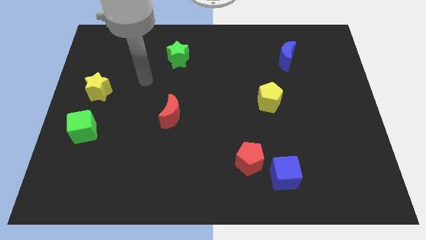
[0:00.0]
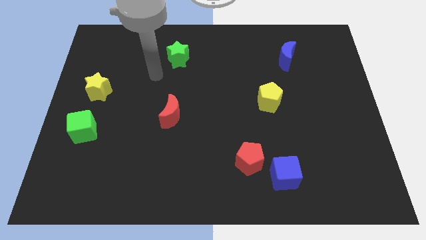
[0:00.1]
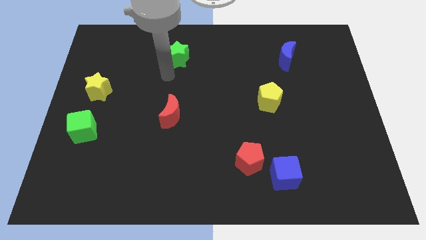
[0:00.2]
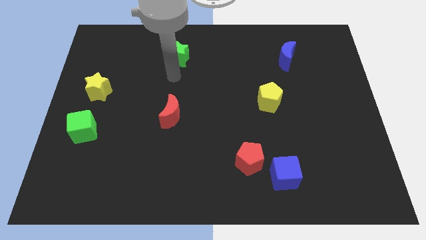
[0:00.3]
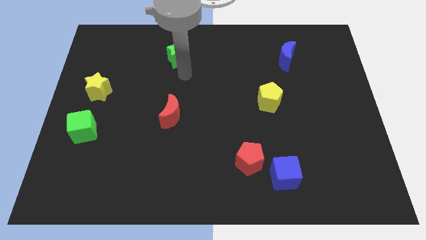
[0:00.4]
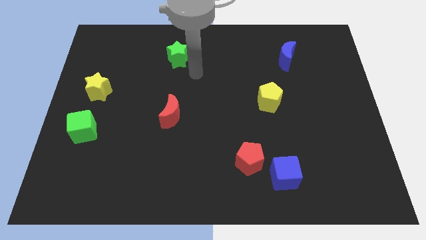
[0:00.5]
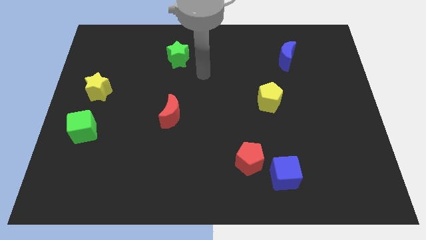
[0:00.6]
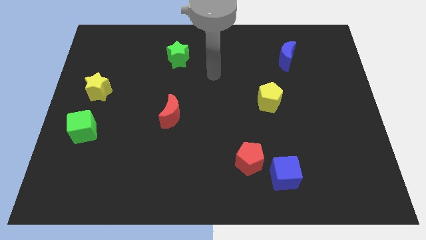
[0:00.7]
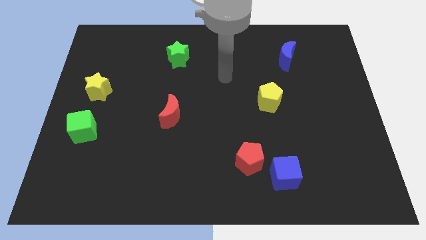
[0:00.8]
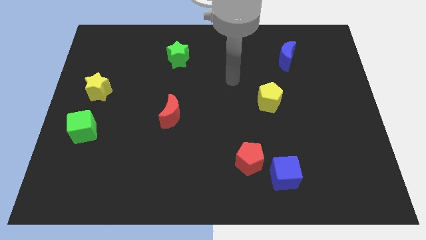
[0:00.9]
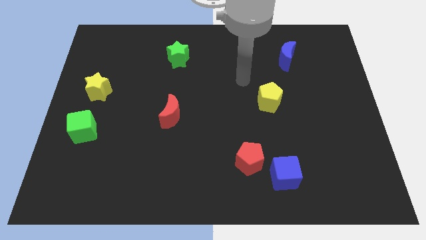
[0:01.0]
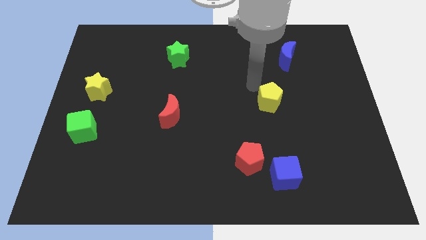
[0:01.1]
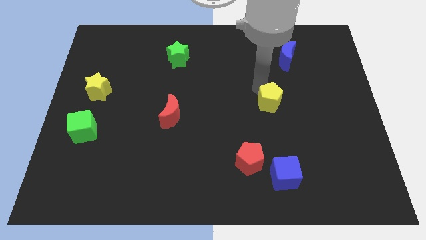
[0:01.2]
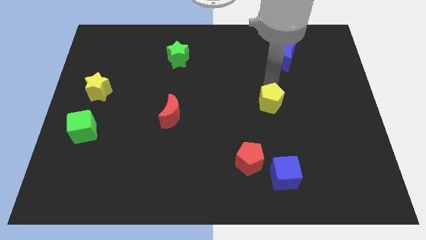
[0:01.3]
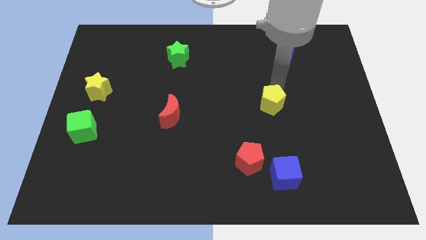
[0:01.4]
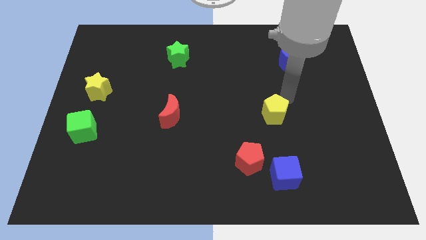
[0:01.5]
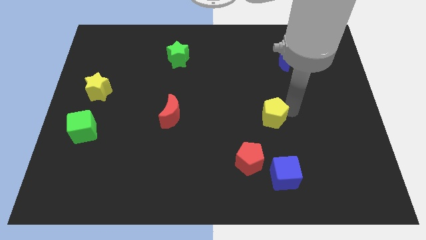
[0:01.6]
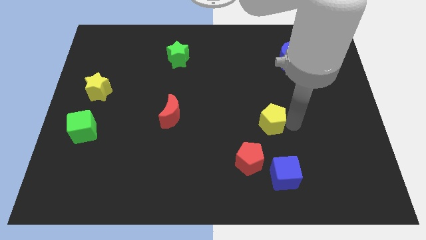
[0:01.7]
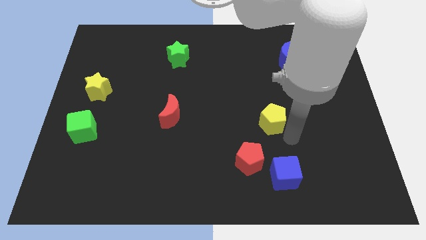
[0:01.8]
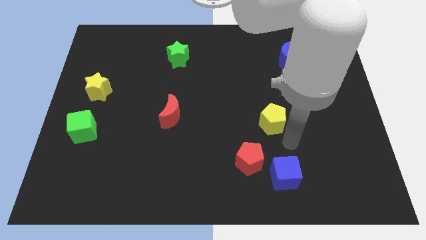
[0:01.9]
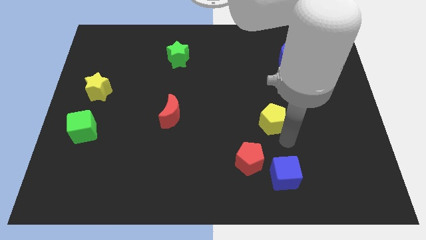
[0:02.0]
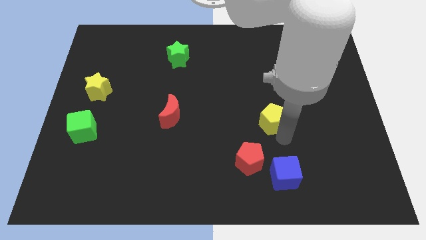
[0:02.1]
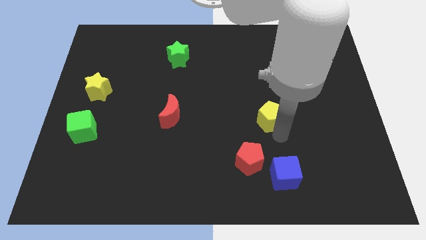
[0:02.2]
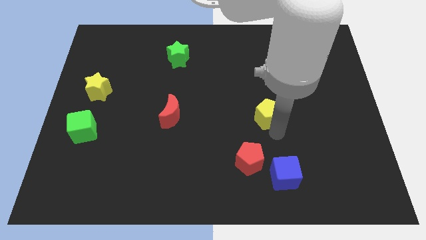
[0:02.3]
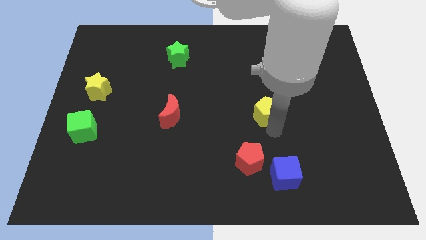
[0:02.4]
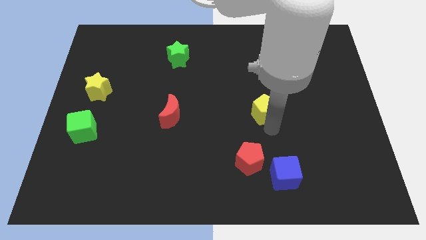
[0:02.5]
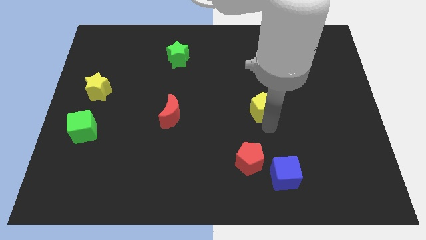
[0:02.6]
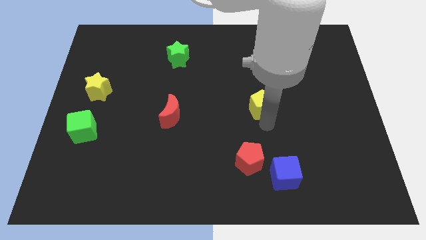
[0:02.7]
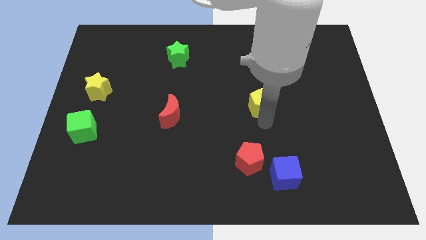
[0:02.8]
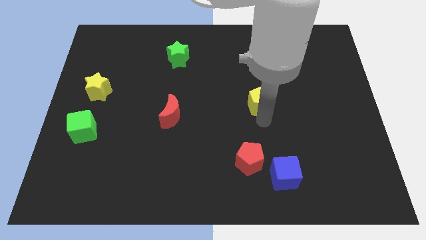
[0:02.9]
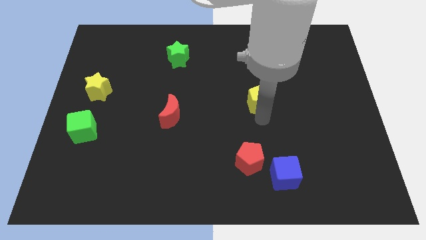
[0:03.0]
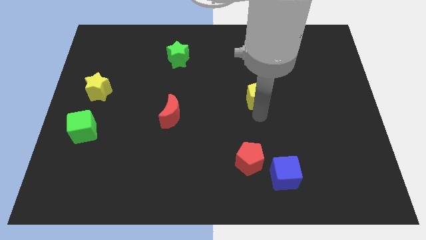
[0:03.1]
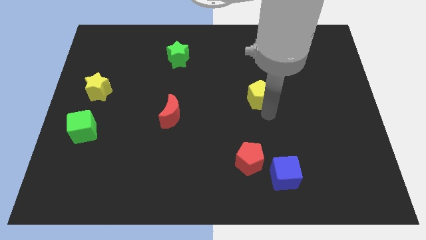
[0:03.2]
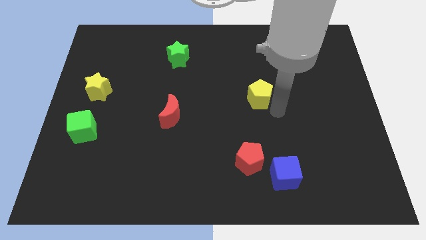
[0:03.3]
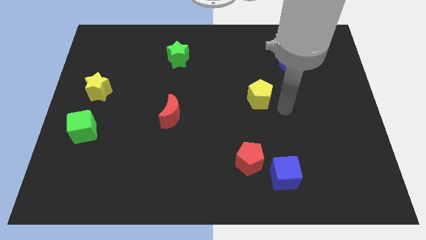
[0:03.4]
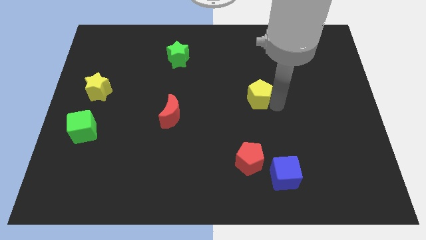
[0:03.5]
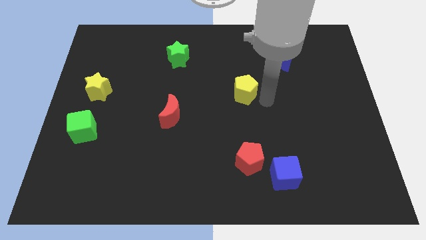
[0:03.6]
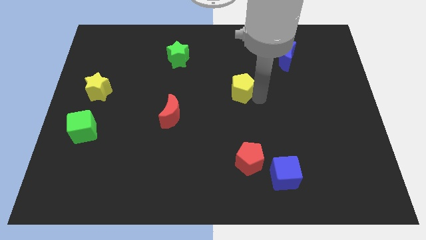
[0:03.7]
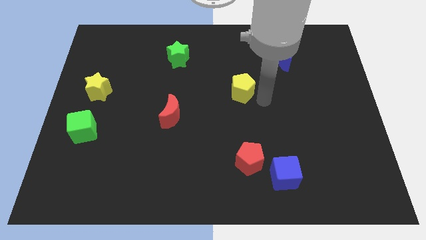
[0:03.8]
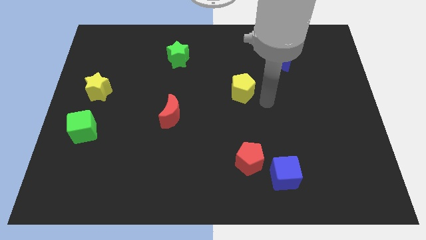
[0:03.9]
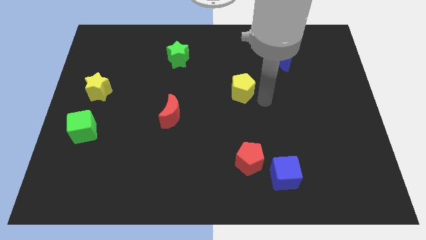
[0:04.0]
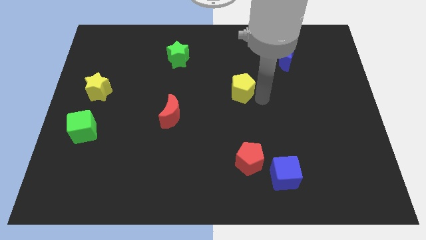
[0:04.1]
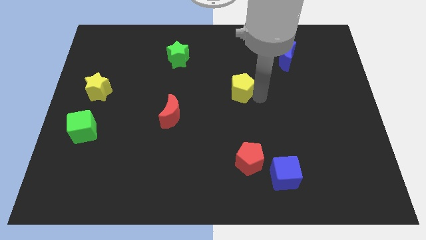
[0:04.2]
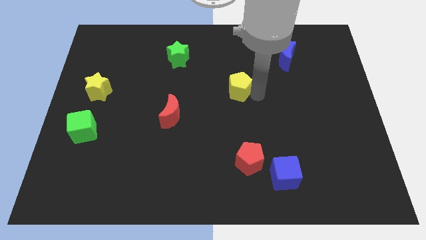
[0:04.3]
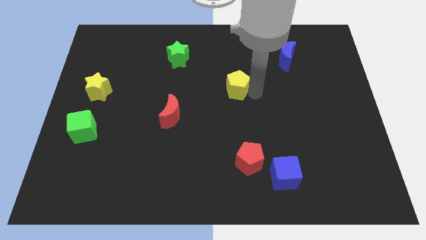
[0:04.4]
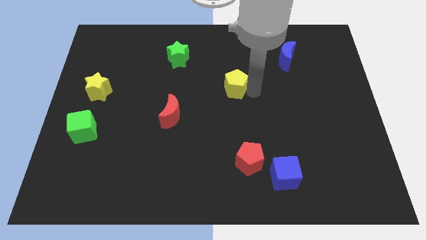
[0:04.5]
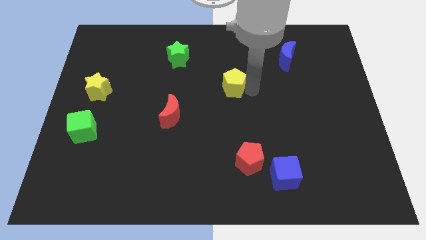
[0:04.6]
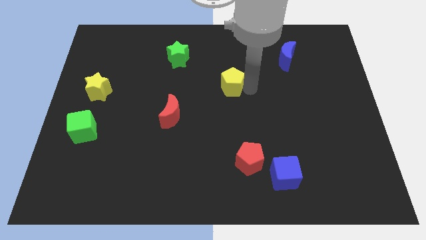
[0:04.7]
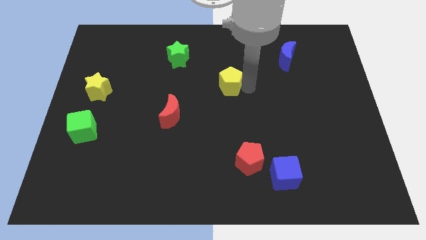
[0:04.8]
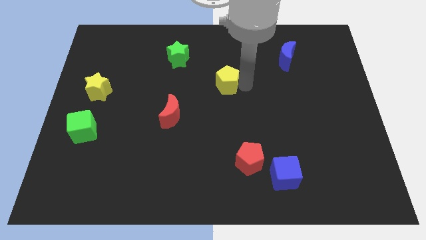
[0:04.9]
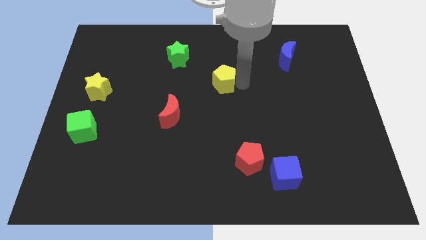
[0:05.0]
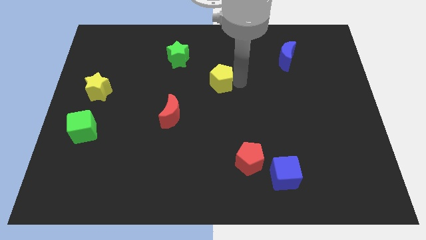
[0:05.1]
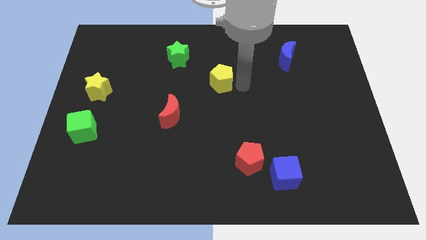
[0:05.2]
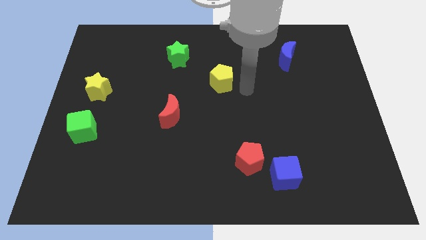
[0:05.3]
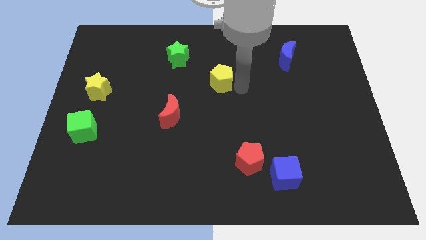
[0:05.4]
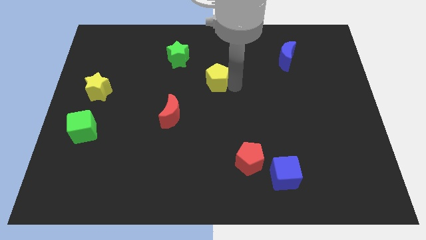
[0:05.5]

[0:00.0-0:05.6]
slide the yellow pentagon to the bottom right side of the green star

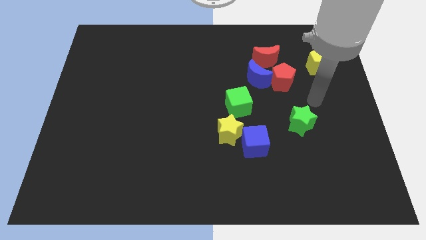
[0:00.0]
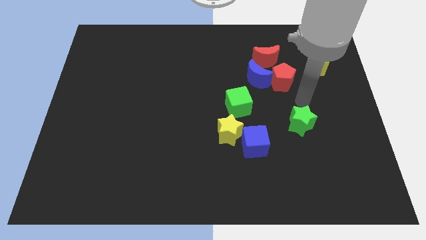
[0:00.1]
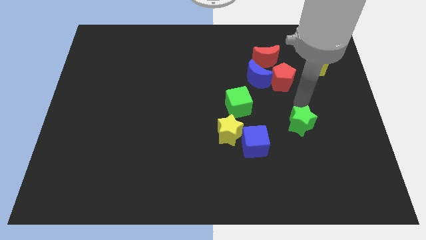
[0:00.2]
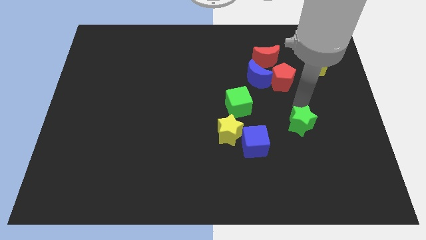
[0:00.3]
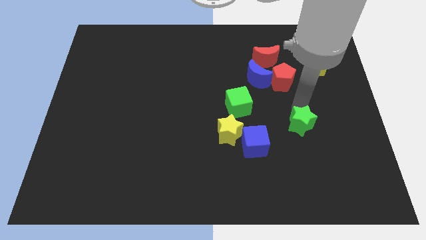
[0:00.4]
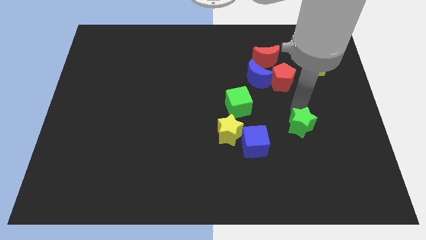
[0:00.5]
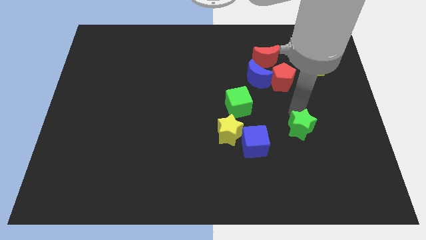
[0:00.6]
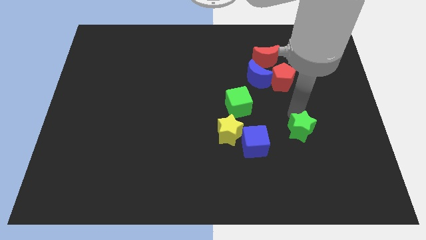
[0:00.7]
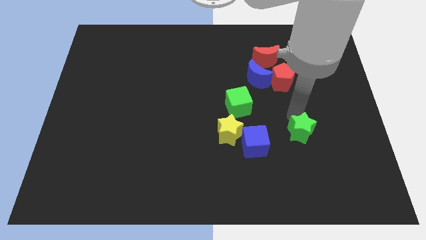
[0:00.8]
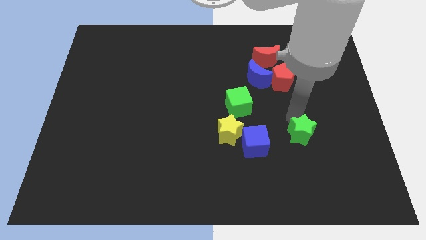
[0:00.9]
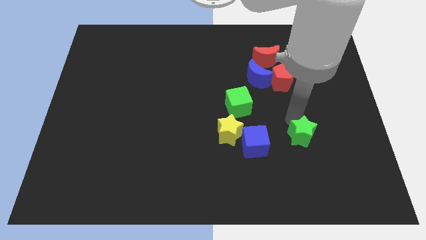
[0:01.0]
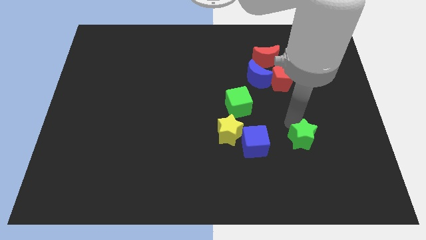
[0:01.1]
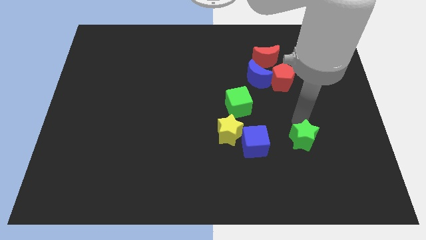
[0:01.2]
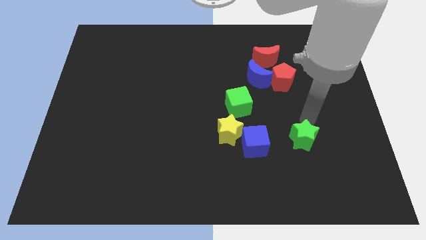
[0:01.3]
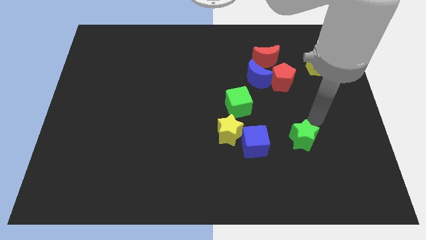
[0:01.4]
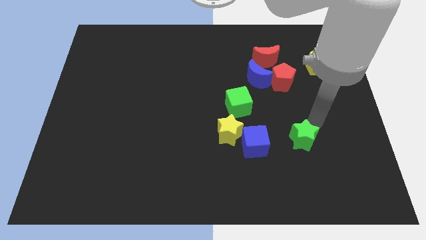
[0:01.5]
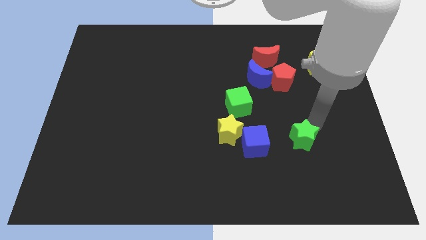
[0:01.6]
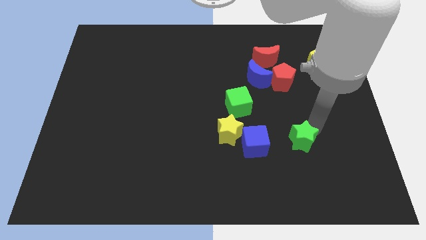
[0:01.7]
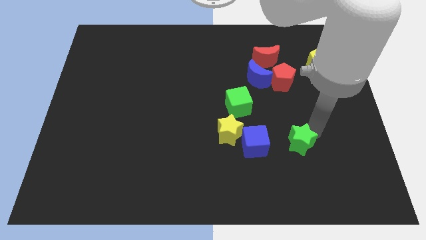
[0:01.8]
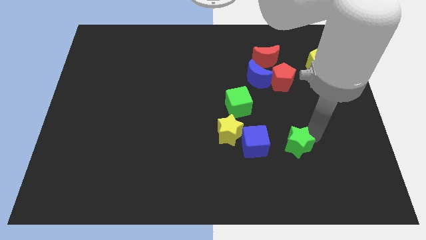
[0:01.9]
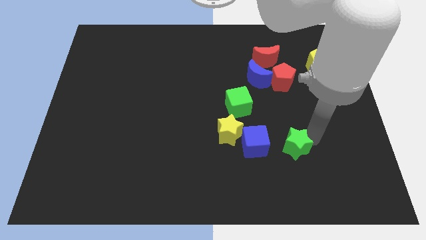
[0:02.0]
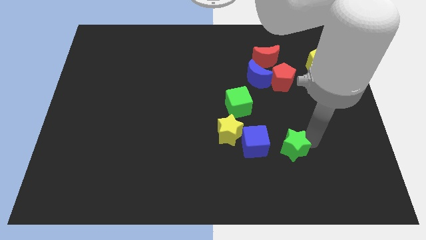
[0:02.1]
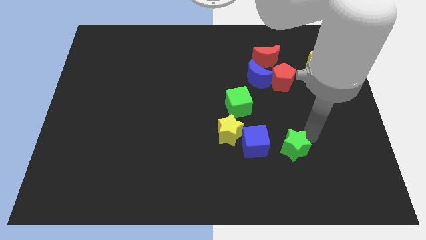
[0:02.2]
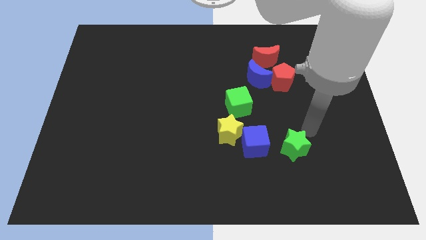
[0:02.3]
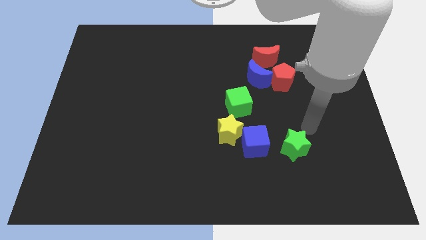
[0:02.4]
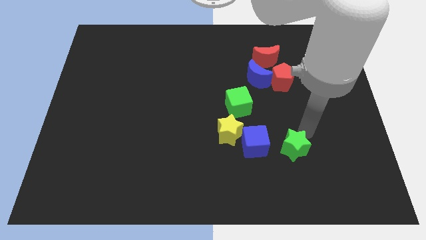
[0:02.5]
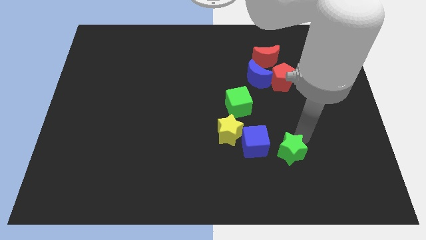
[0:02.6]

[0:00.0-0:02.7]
put the green star to the bottom right of the blue cube
